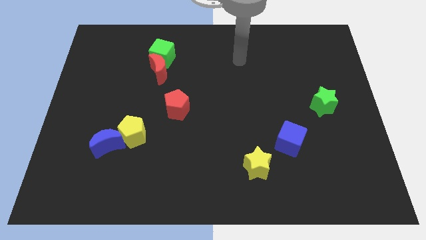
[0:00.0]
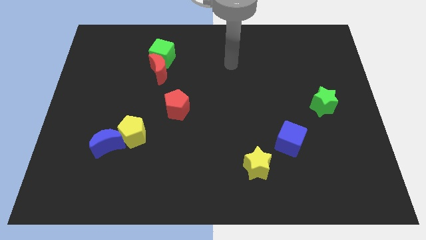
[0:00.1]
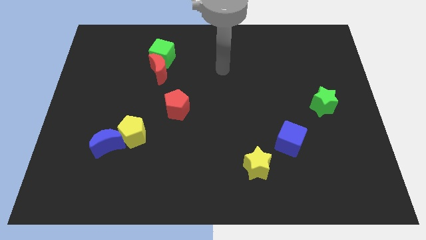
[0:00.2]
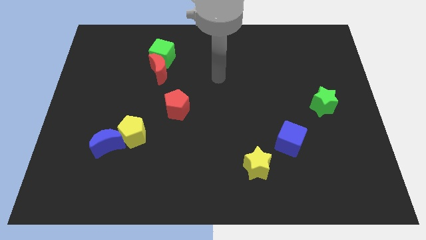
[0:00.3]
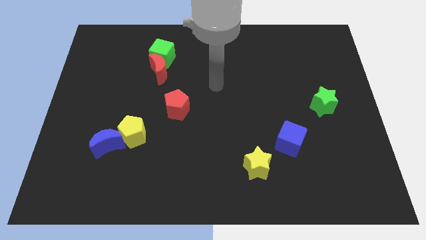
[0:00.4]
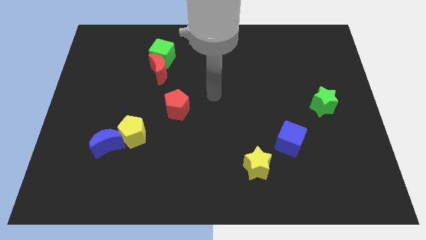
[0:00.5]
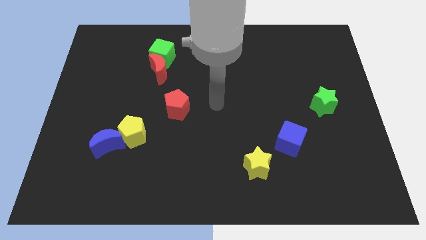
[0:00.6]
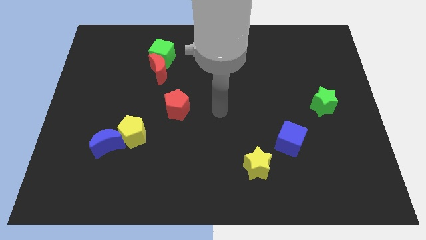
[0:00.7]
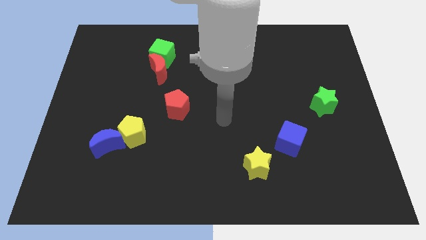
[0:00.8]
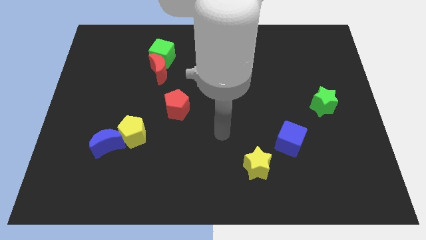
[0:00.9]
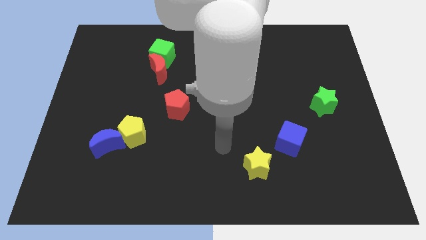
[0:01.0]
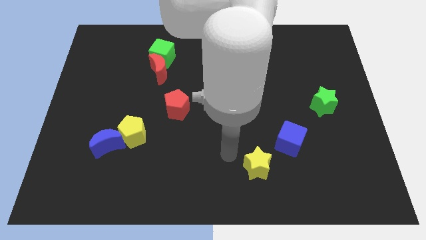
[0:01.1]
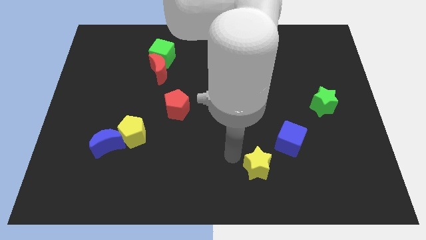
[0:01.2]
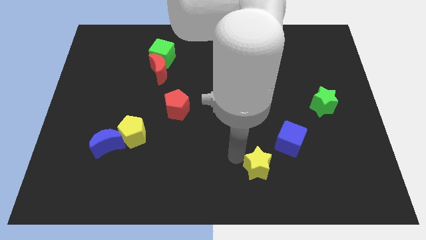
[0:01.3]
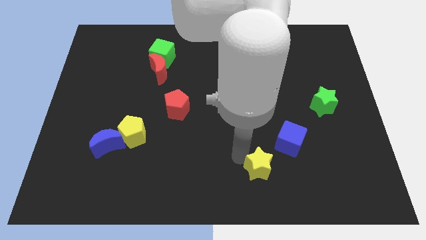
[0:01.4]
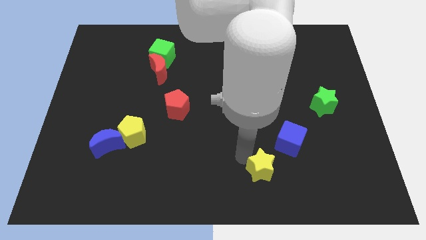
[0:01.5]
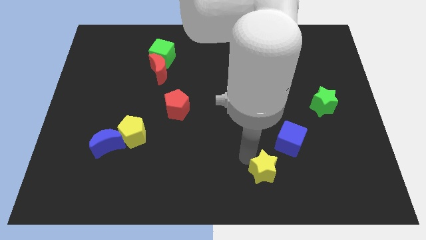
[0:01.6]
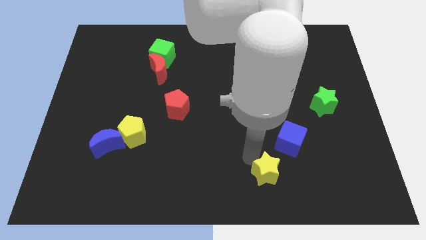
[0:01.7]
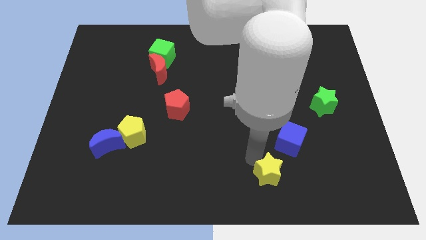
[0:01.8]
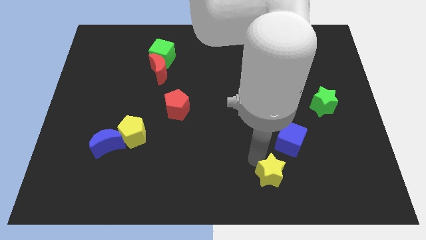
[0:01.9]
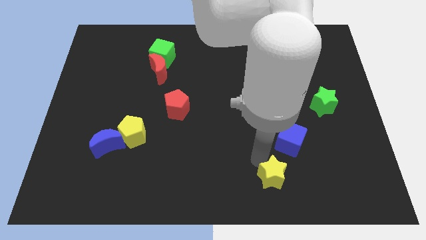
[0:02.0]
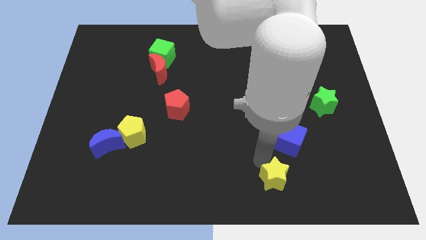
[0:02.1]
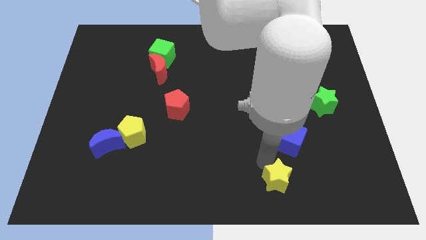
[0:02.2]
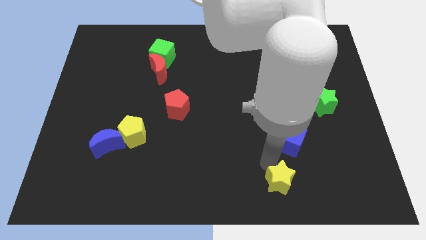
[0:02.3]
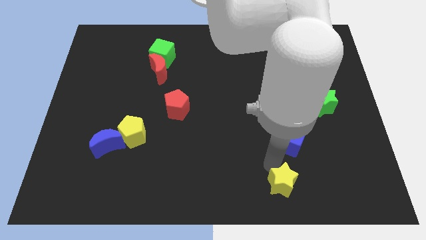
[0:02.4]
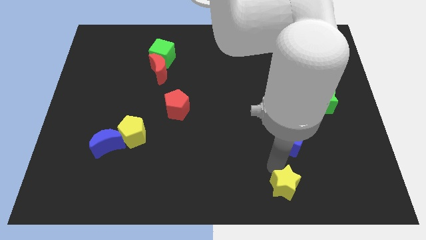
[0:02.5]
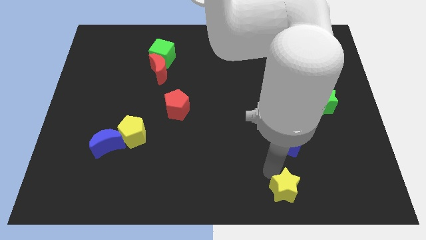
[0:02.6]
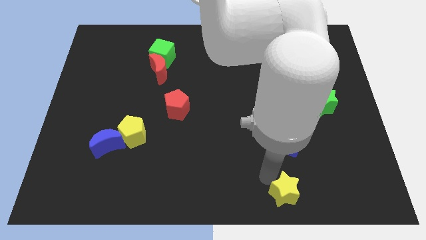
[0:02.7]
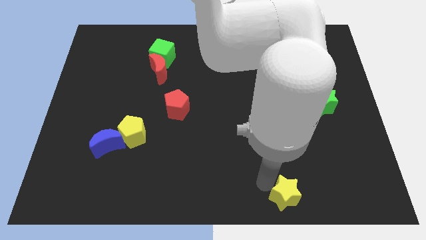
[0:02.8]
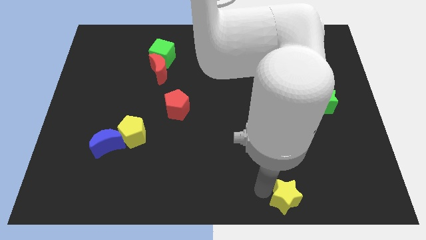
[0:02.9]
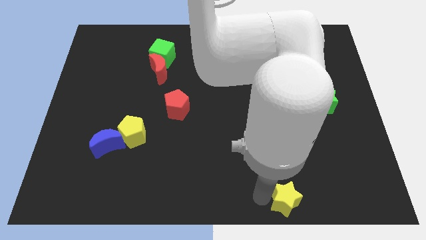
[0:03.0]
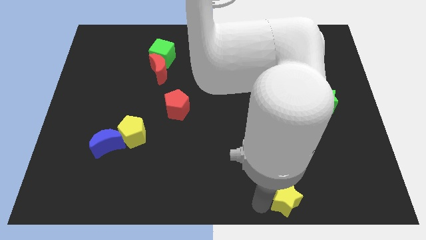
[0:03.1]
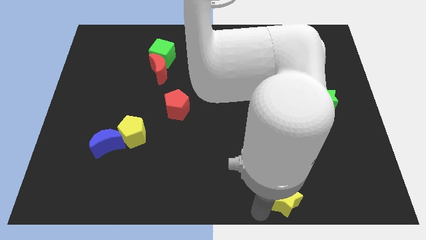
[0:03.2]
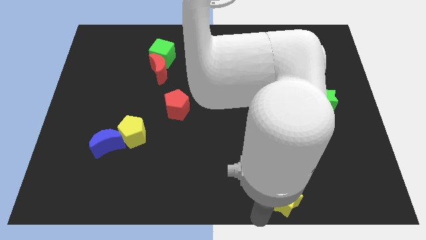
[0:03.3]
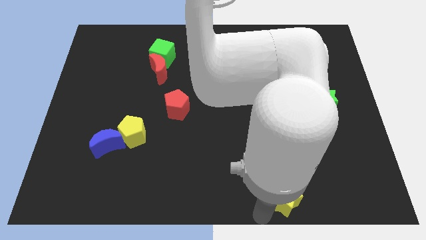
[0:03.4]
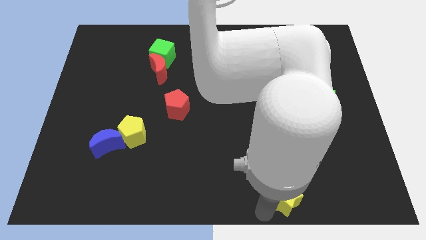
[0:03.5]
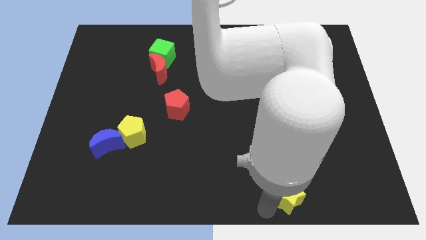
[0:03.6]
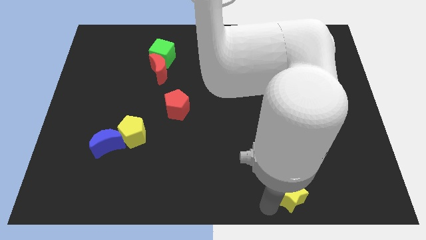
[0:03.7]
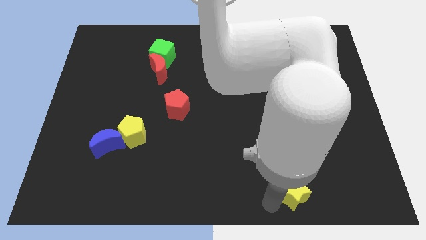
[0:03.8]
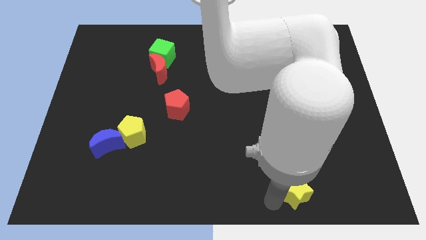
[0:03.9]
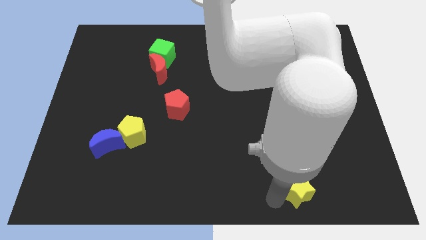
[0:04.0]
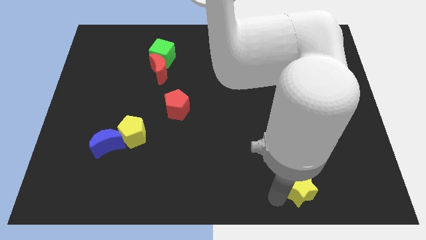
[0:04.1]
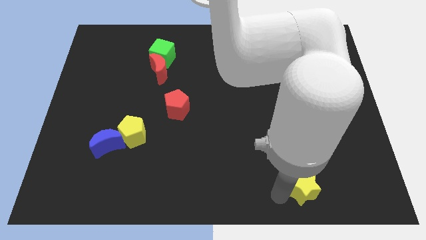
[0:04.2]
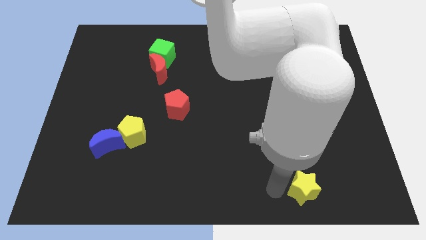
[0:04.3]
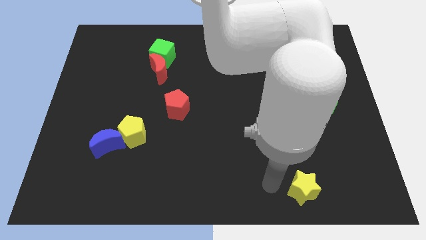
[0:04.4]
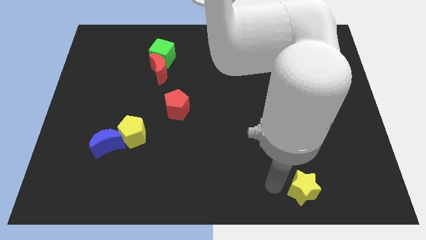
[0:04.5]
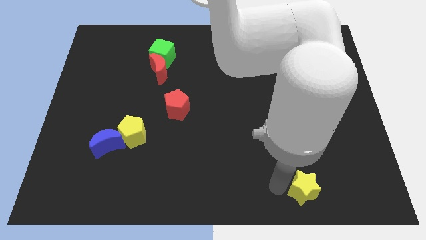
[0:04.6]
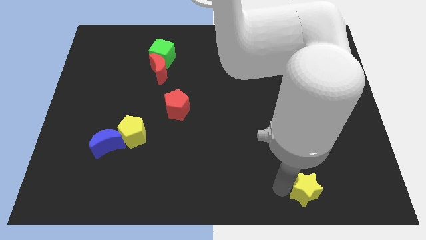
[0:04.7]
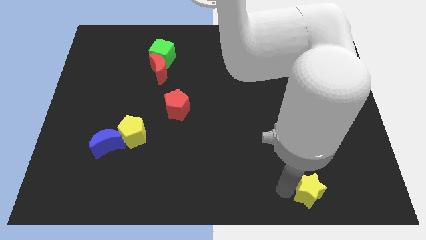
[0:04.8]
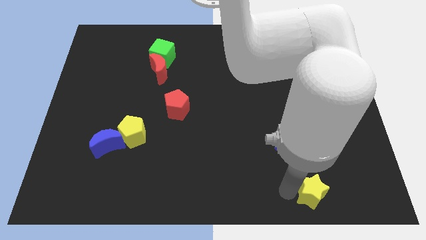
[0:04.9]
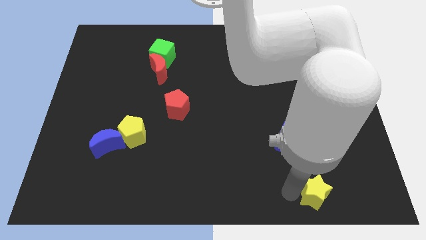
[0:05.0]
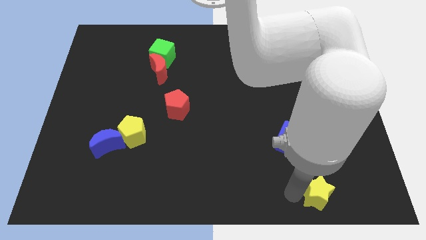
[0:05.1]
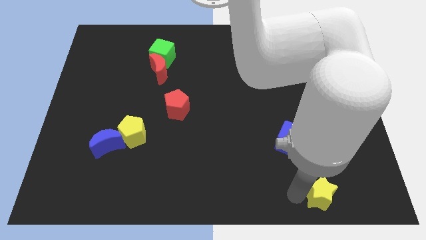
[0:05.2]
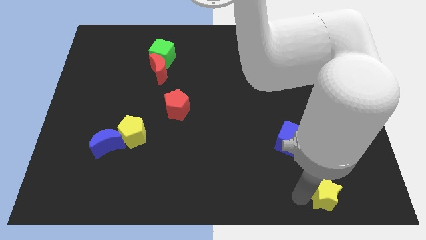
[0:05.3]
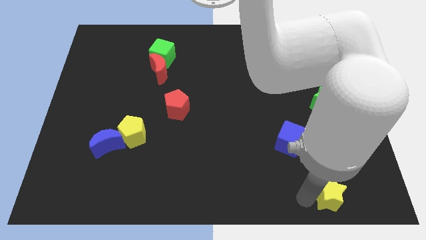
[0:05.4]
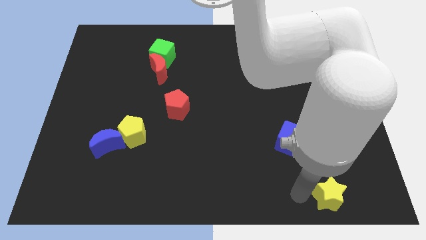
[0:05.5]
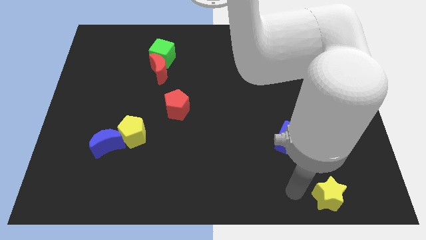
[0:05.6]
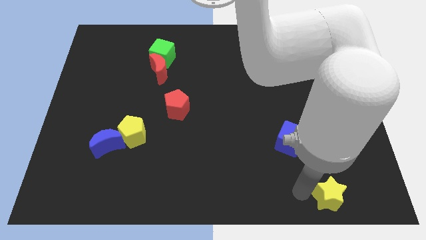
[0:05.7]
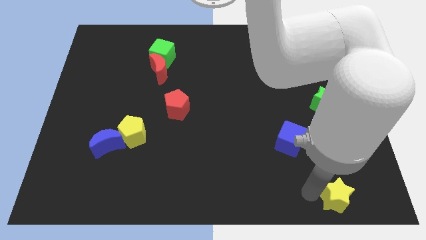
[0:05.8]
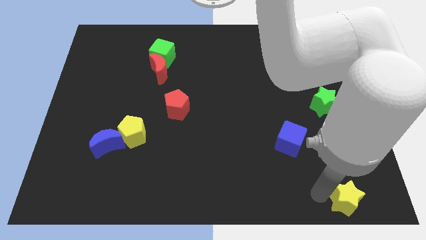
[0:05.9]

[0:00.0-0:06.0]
put the yellow star to the lower right corner
